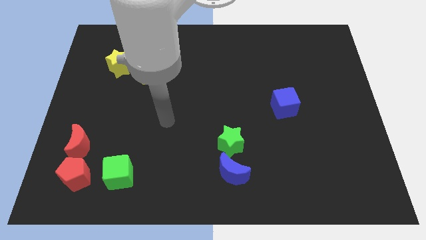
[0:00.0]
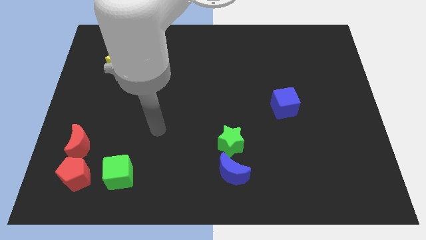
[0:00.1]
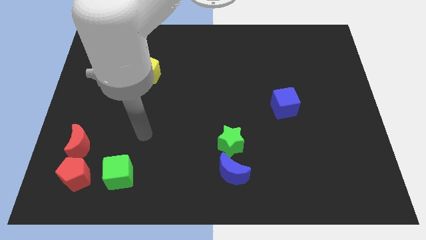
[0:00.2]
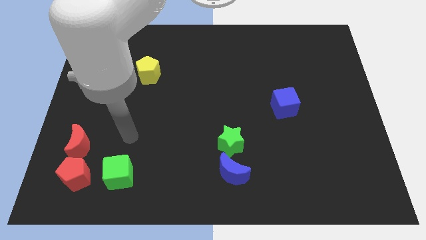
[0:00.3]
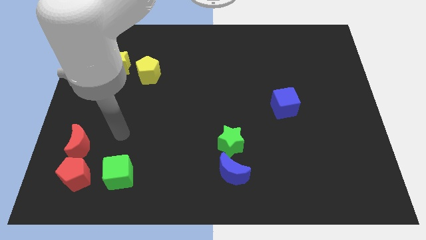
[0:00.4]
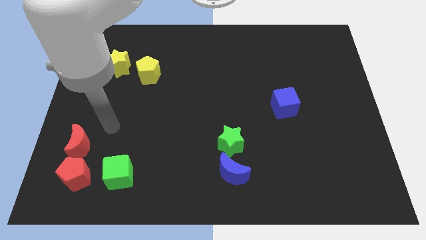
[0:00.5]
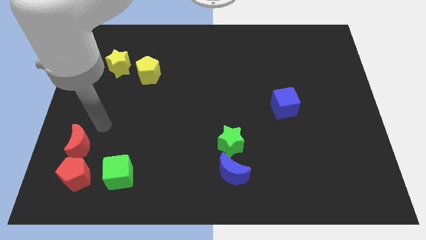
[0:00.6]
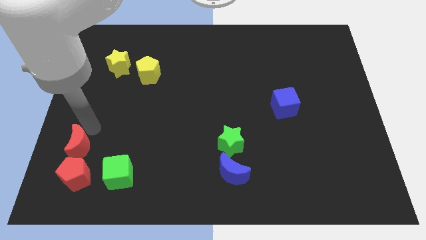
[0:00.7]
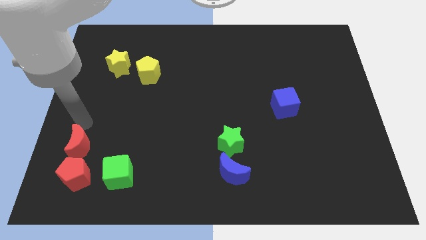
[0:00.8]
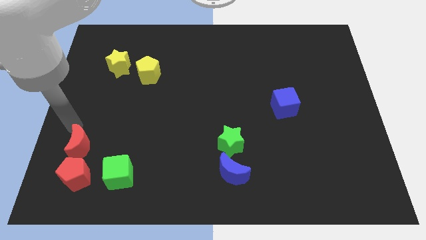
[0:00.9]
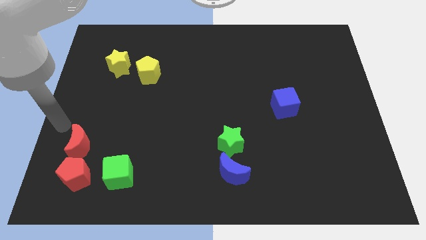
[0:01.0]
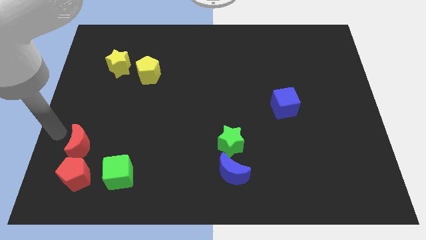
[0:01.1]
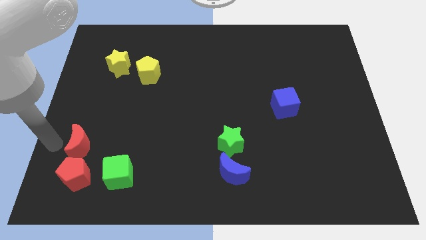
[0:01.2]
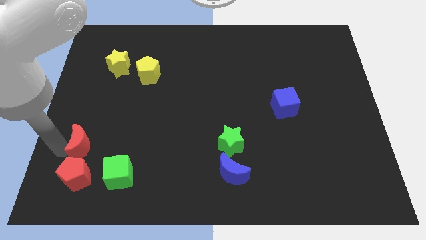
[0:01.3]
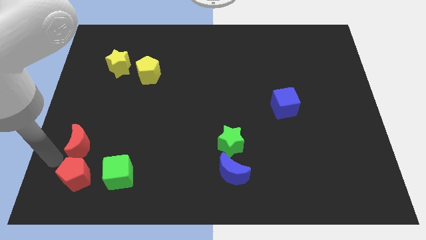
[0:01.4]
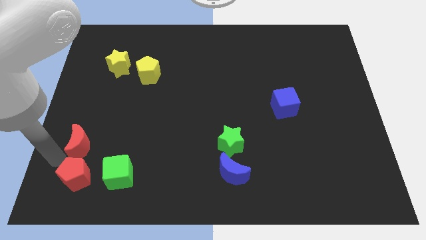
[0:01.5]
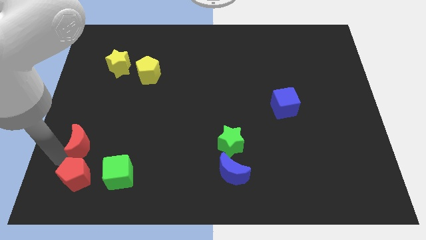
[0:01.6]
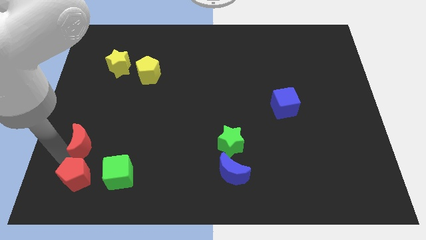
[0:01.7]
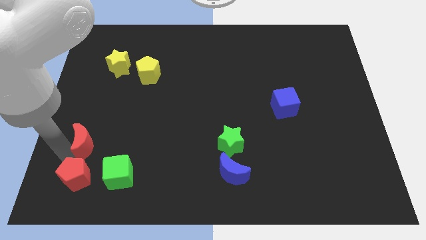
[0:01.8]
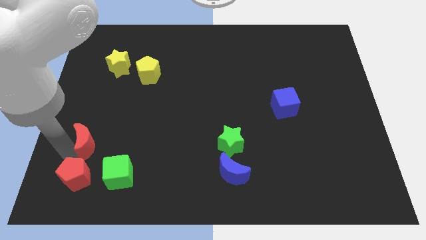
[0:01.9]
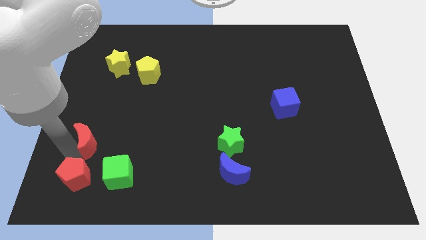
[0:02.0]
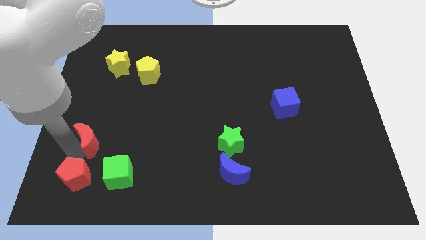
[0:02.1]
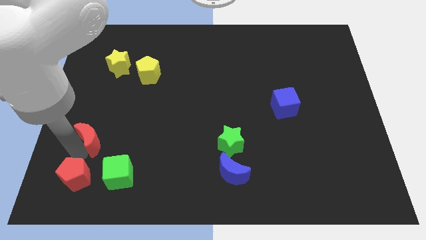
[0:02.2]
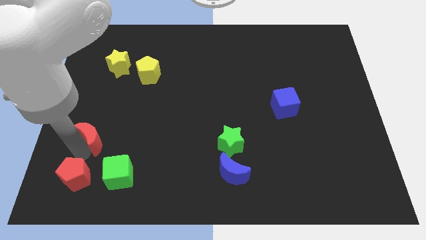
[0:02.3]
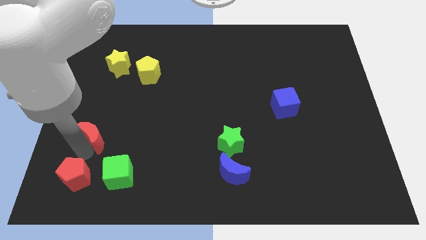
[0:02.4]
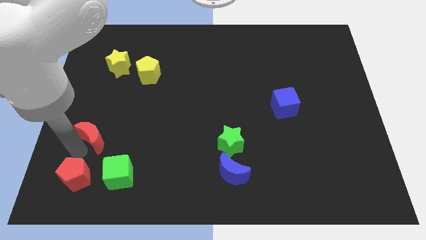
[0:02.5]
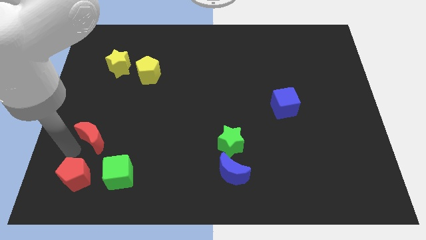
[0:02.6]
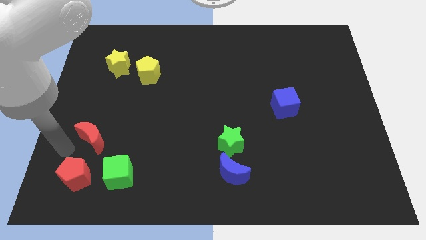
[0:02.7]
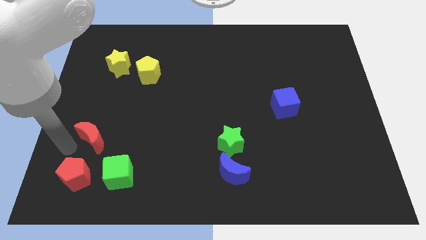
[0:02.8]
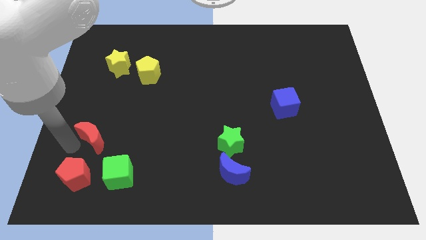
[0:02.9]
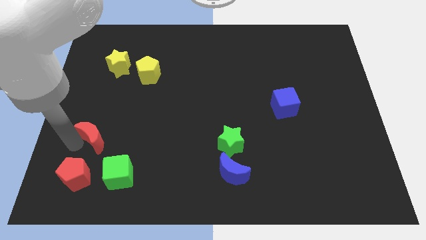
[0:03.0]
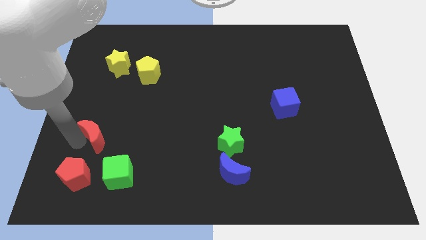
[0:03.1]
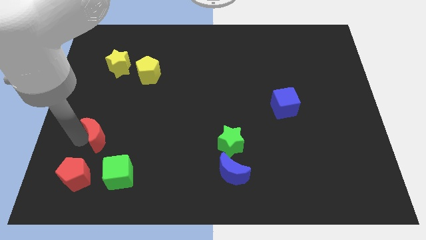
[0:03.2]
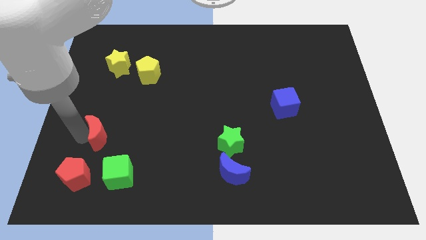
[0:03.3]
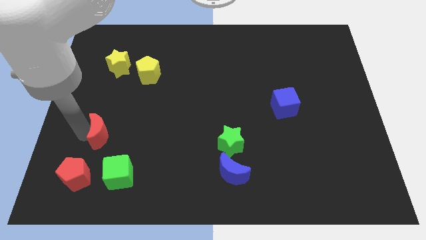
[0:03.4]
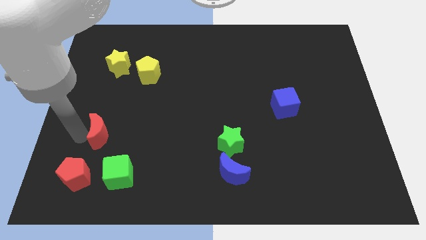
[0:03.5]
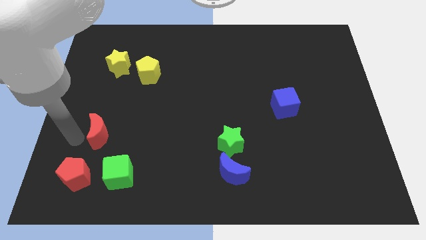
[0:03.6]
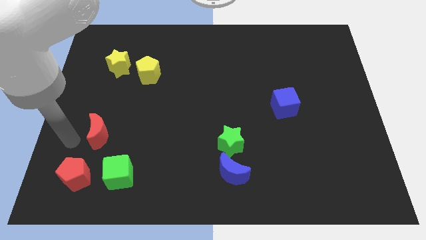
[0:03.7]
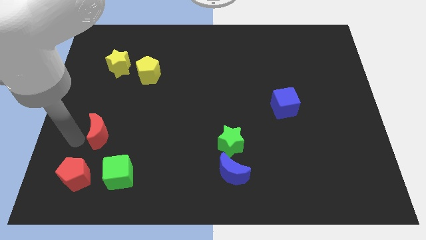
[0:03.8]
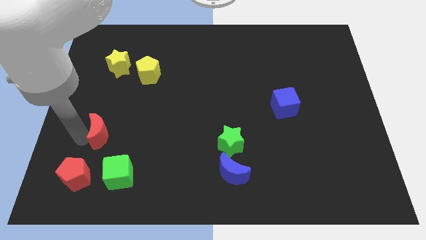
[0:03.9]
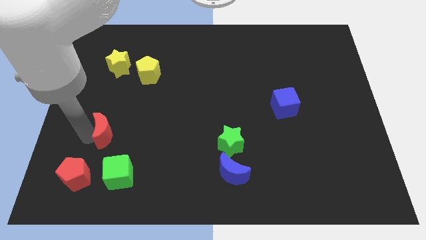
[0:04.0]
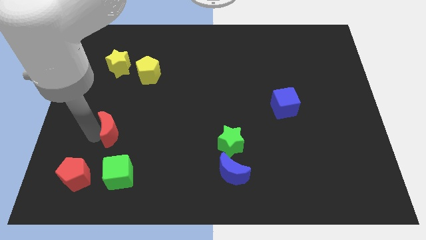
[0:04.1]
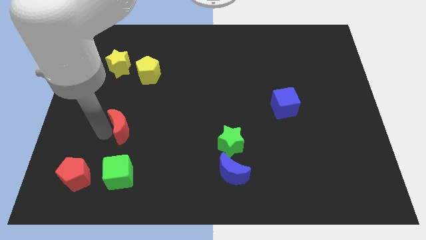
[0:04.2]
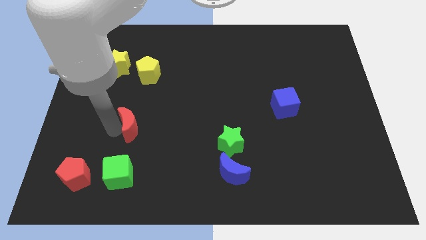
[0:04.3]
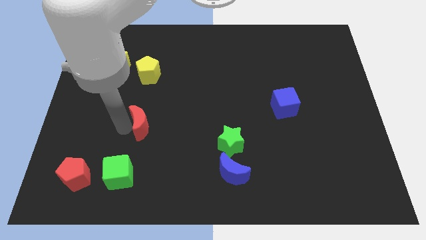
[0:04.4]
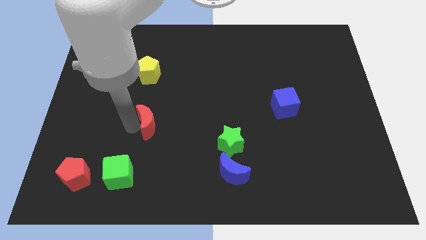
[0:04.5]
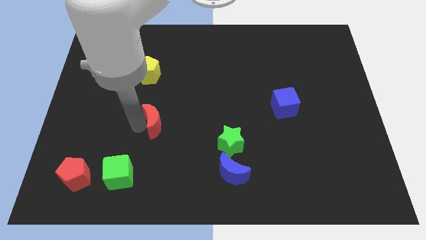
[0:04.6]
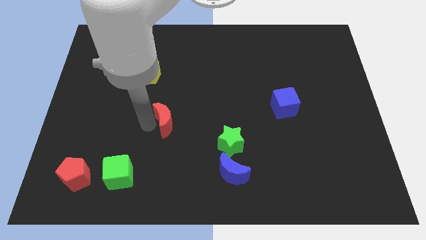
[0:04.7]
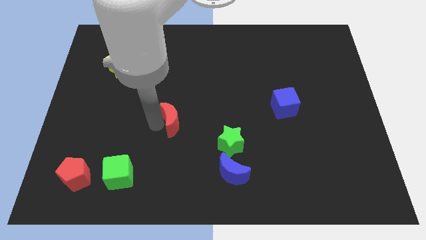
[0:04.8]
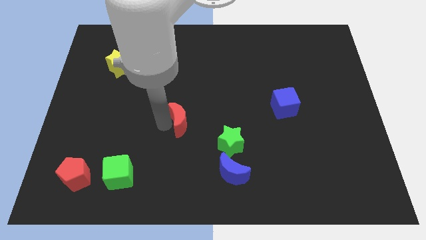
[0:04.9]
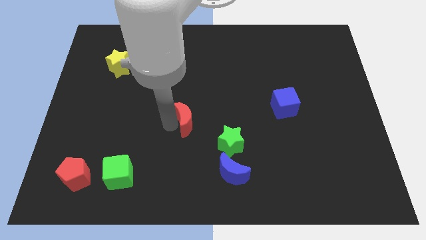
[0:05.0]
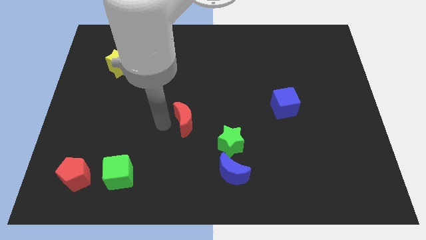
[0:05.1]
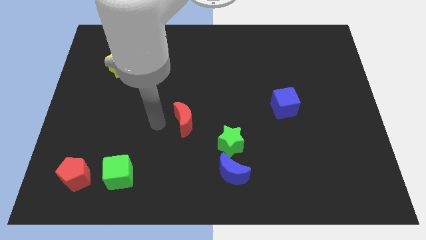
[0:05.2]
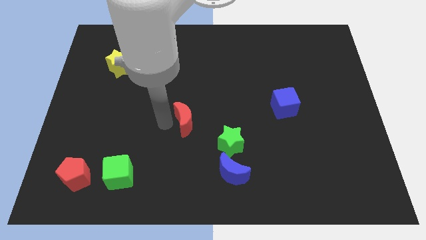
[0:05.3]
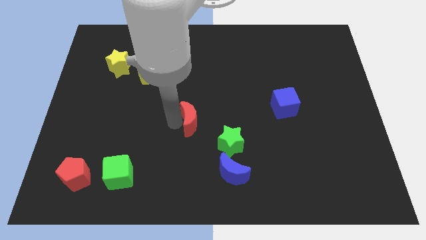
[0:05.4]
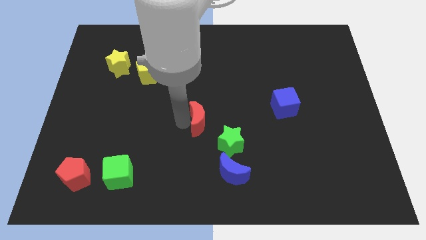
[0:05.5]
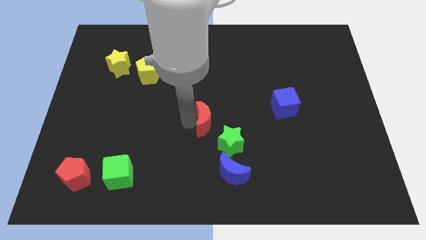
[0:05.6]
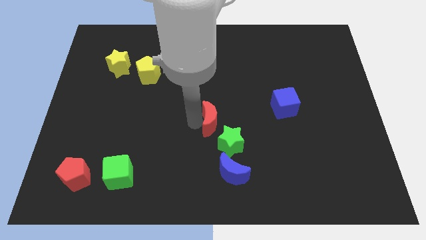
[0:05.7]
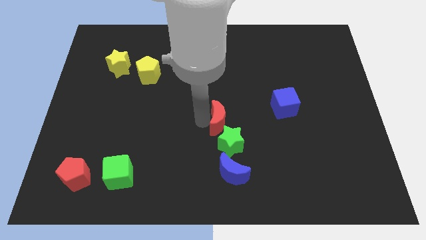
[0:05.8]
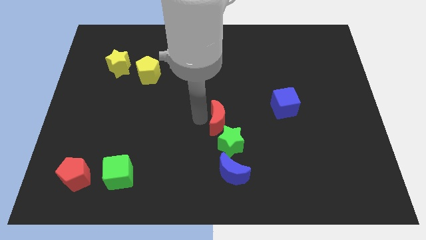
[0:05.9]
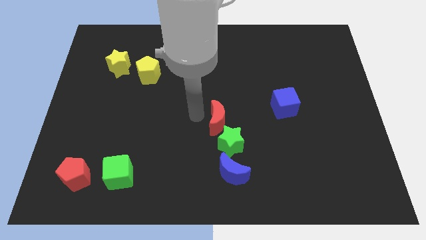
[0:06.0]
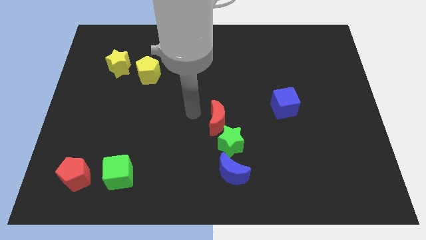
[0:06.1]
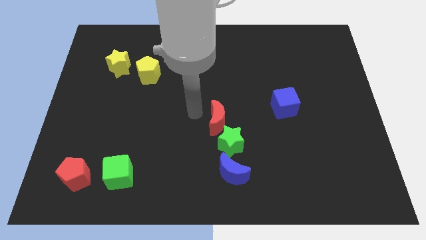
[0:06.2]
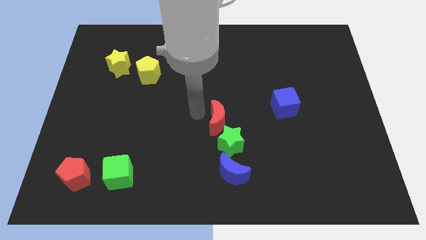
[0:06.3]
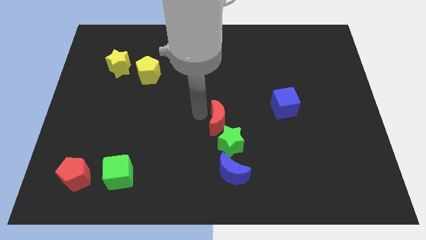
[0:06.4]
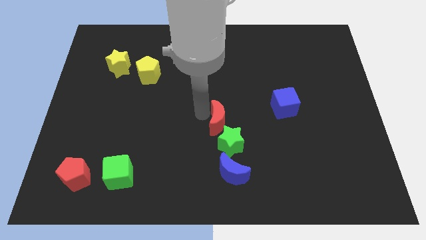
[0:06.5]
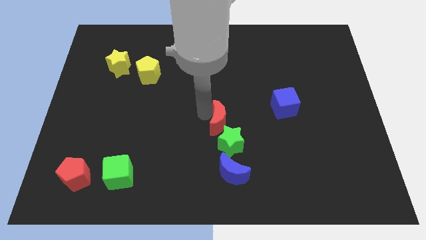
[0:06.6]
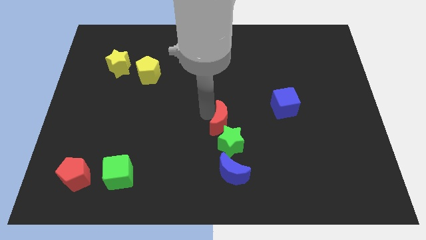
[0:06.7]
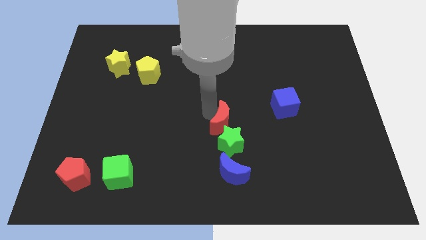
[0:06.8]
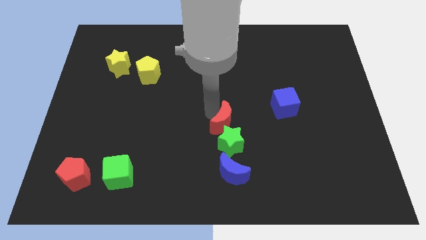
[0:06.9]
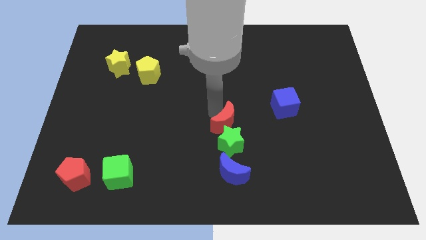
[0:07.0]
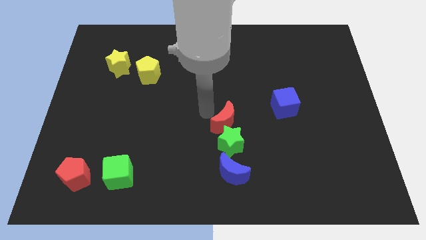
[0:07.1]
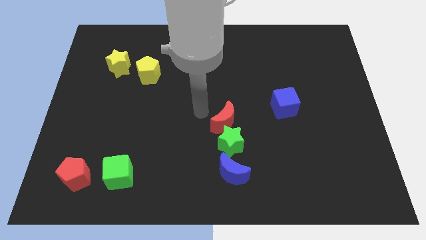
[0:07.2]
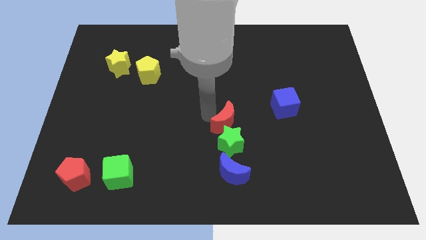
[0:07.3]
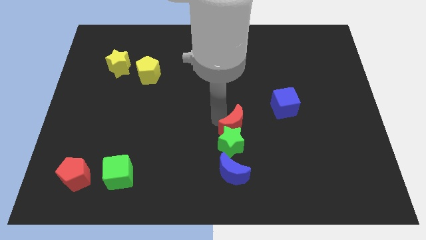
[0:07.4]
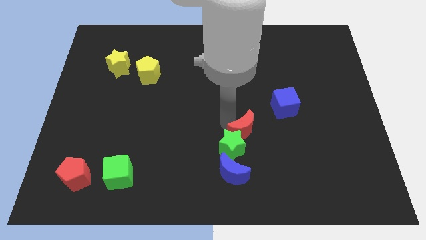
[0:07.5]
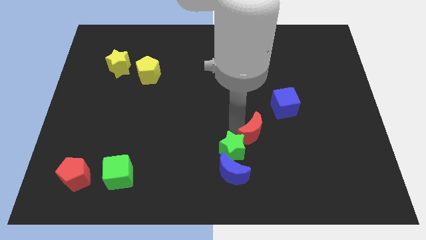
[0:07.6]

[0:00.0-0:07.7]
push the red moon to the right side of the green star
